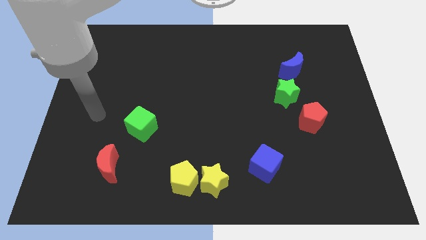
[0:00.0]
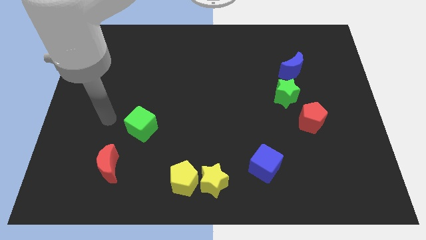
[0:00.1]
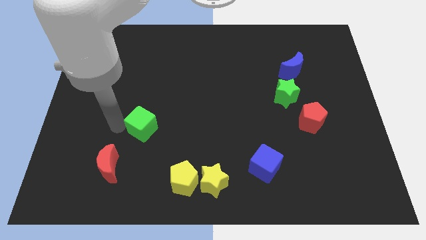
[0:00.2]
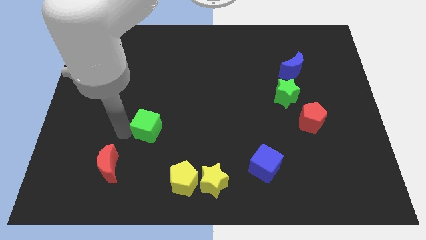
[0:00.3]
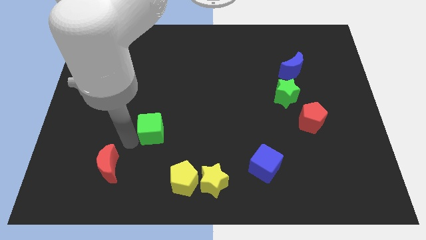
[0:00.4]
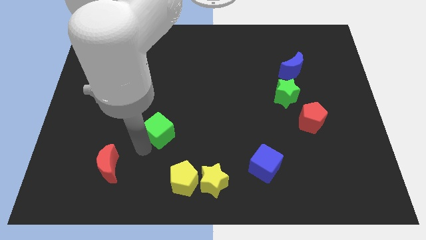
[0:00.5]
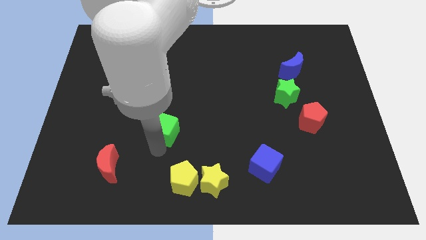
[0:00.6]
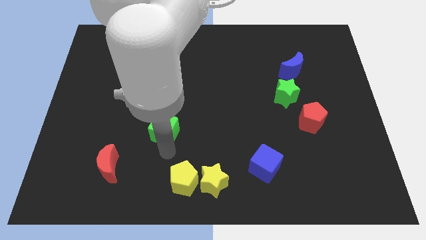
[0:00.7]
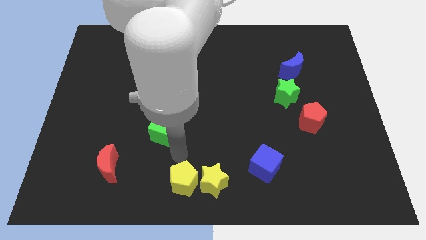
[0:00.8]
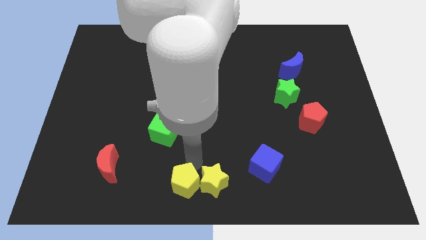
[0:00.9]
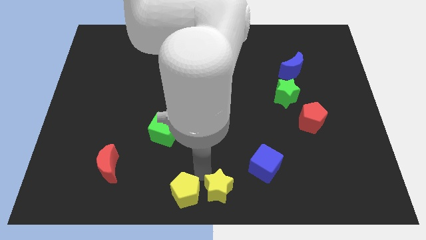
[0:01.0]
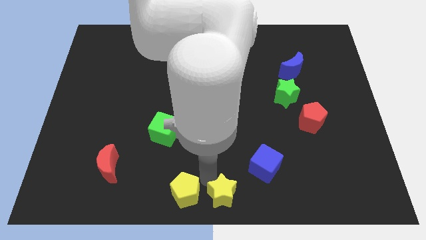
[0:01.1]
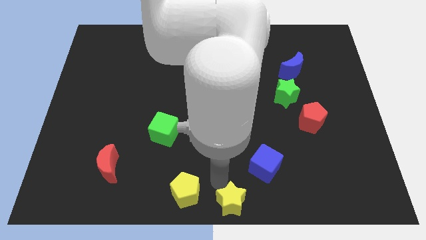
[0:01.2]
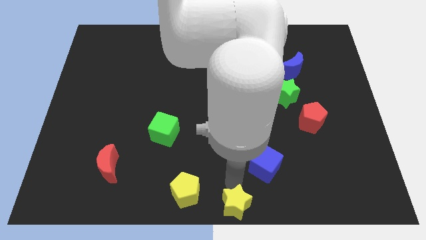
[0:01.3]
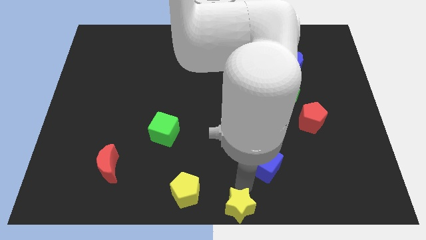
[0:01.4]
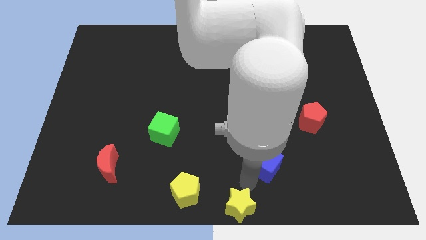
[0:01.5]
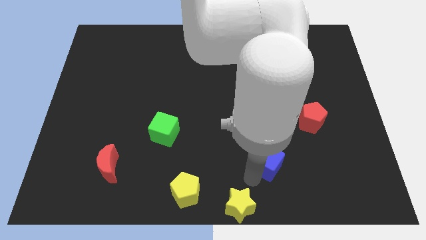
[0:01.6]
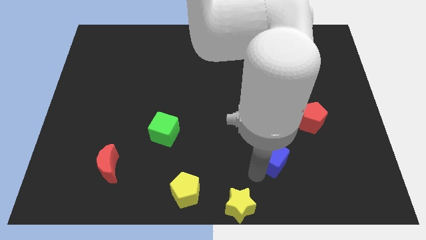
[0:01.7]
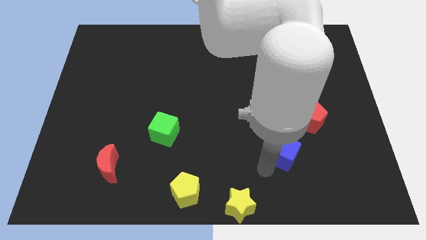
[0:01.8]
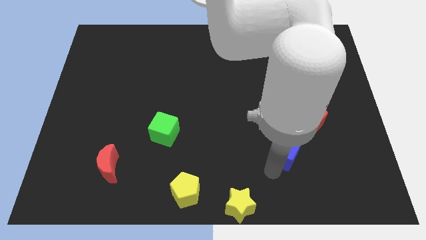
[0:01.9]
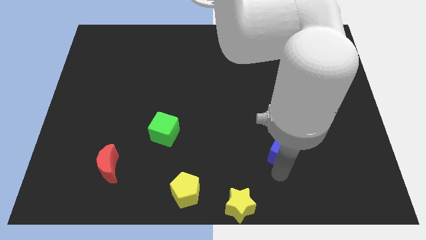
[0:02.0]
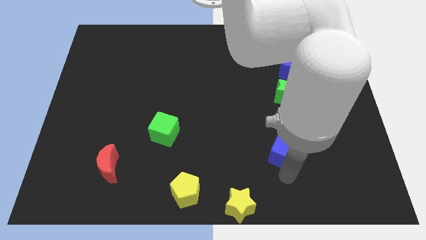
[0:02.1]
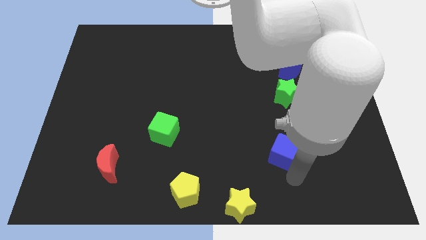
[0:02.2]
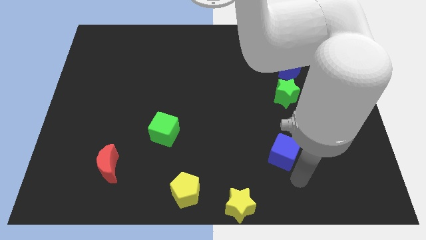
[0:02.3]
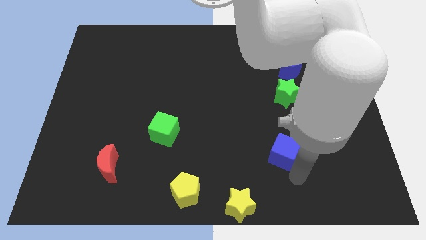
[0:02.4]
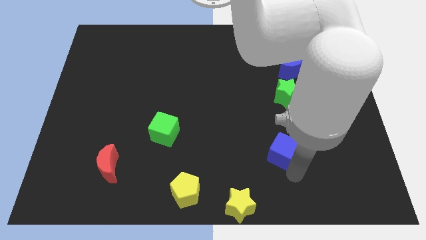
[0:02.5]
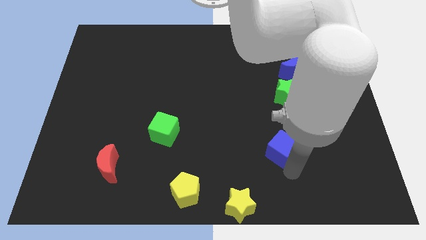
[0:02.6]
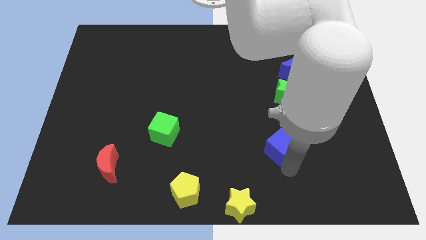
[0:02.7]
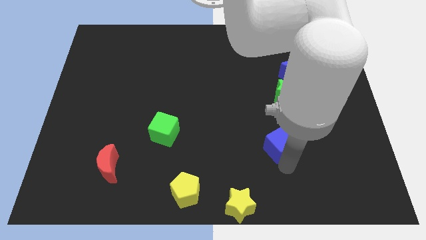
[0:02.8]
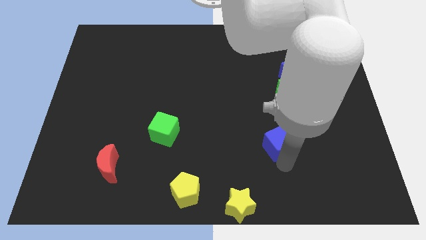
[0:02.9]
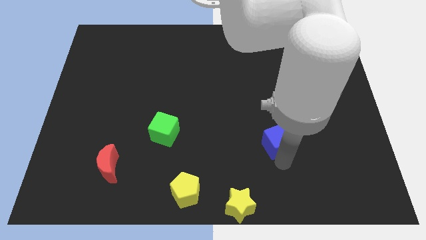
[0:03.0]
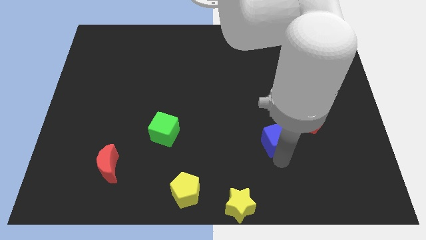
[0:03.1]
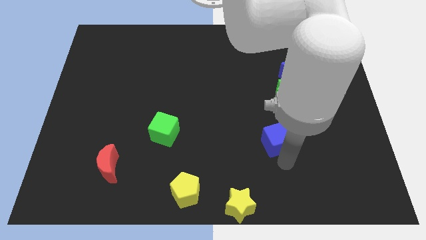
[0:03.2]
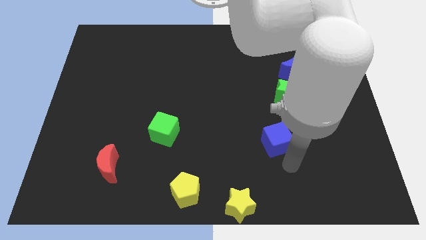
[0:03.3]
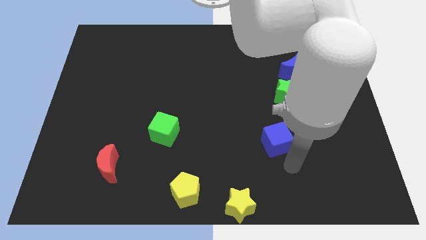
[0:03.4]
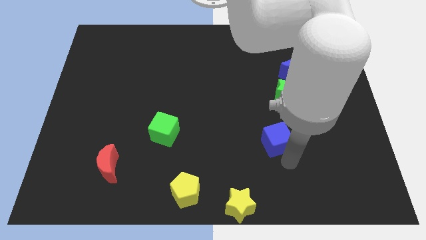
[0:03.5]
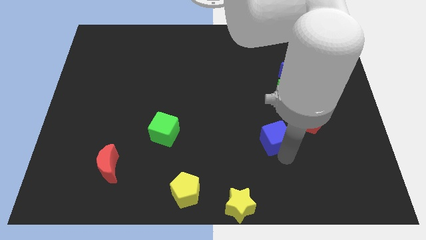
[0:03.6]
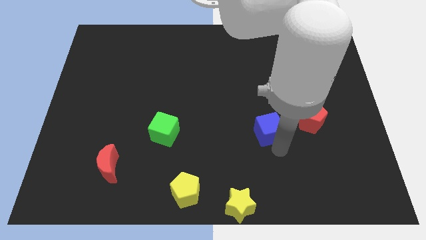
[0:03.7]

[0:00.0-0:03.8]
slightly push the blue cube up

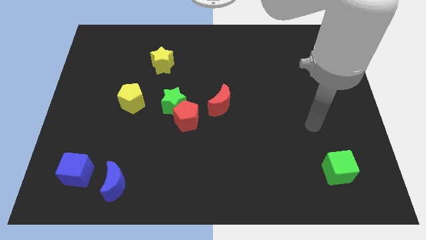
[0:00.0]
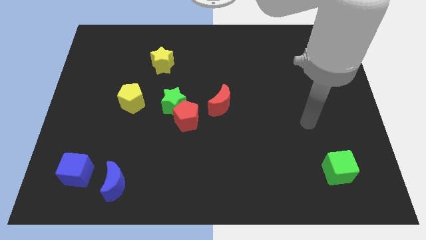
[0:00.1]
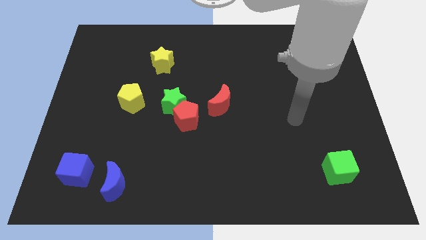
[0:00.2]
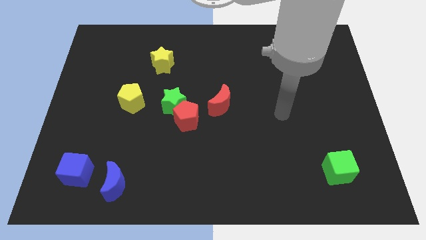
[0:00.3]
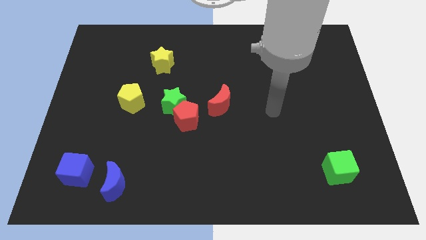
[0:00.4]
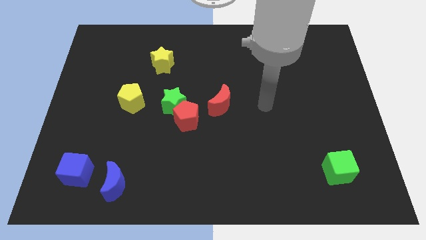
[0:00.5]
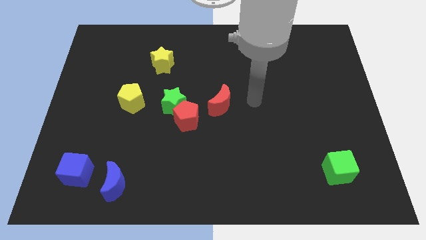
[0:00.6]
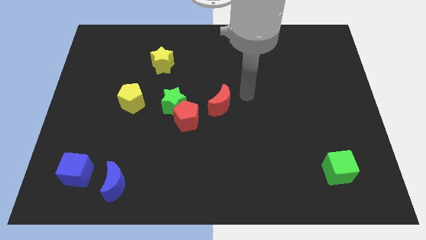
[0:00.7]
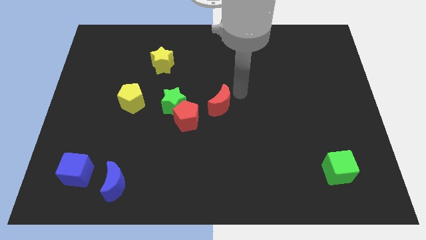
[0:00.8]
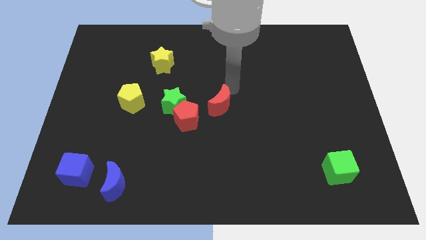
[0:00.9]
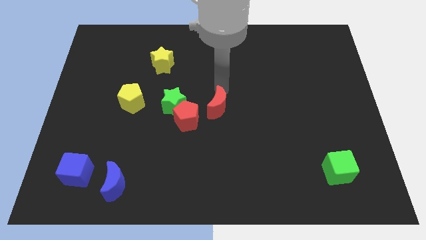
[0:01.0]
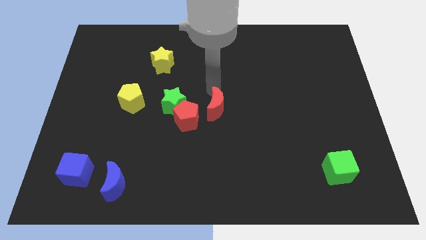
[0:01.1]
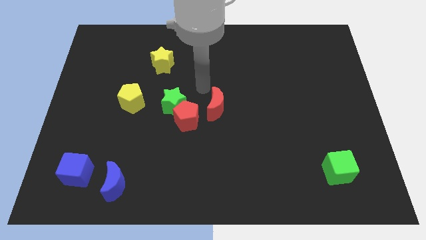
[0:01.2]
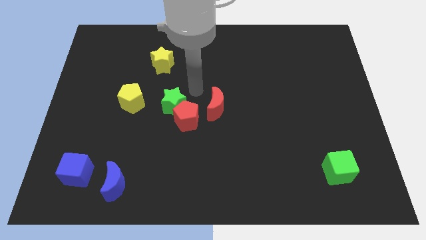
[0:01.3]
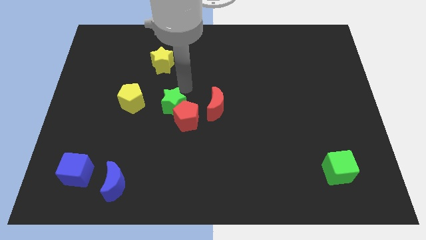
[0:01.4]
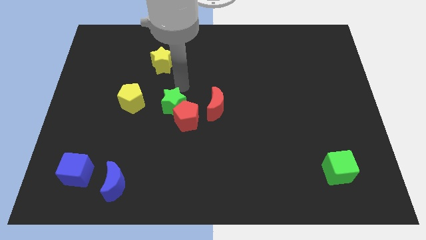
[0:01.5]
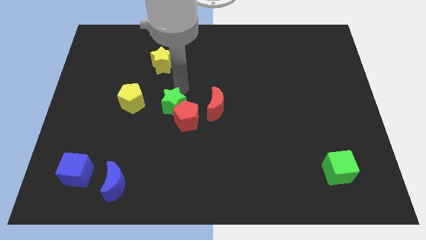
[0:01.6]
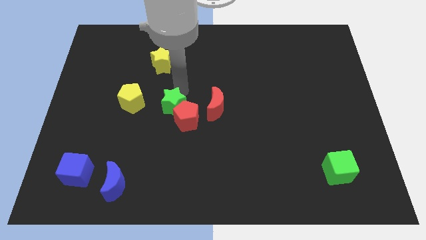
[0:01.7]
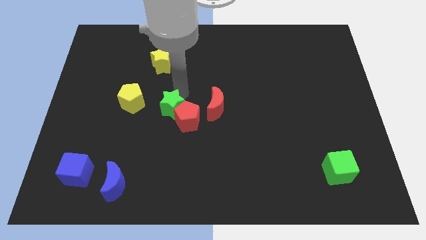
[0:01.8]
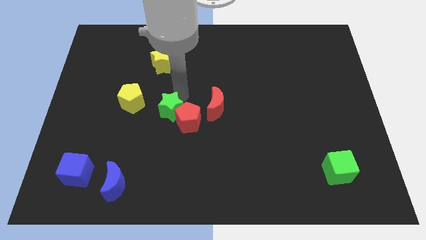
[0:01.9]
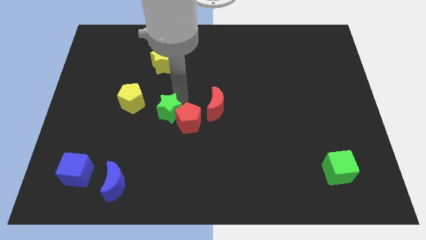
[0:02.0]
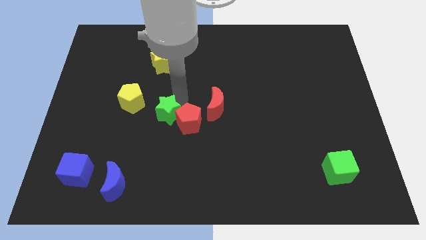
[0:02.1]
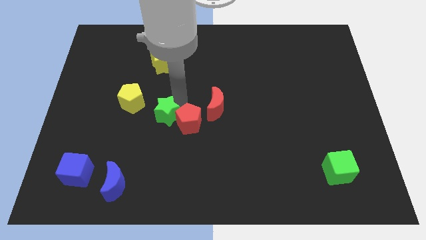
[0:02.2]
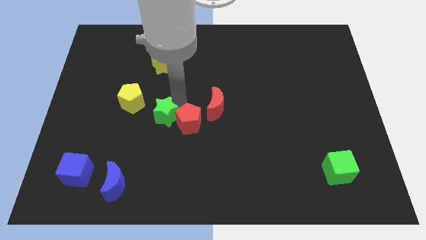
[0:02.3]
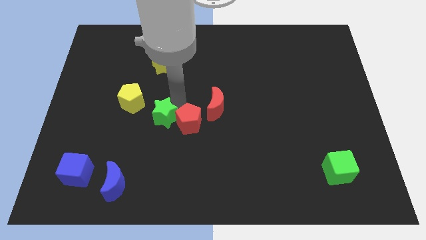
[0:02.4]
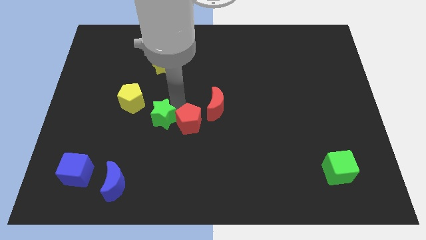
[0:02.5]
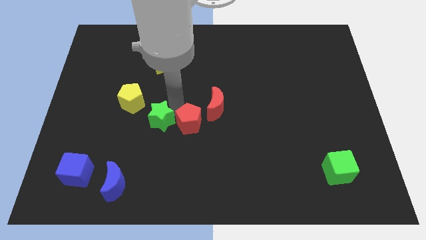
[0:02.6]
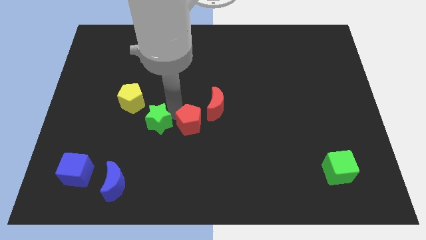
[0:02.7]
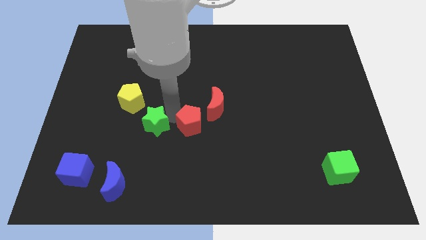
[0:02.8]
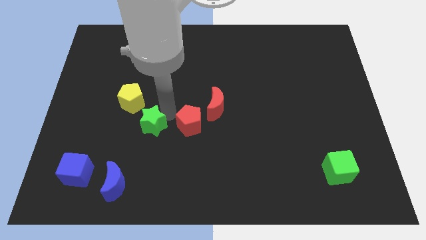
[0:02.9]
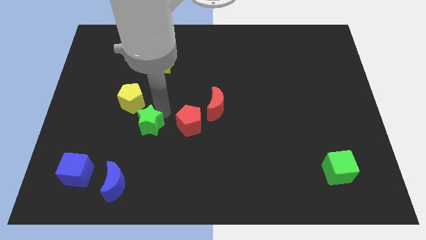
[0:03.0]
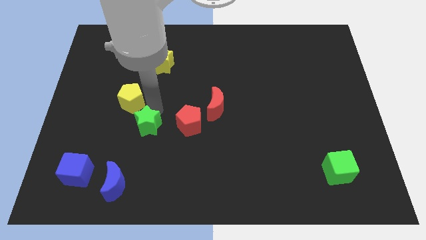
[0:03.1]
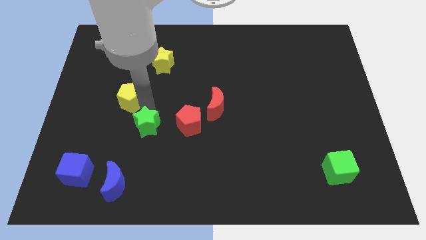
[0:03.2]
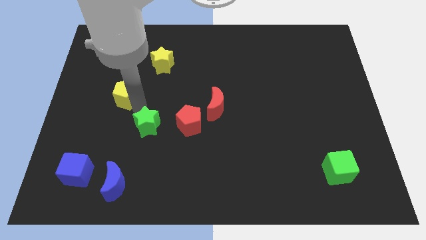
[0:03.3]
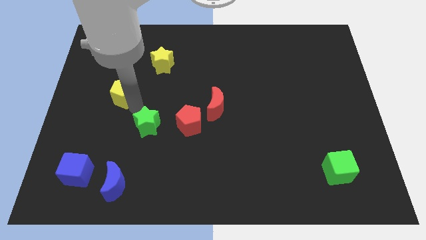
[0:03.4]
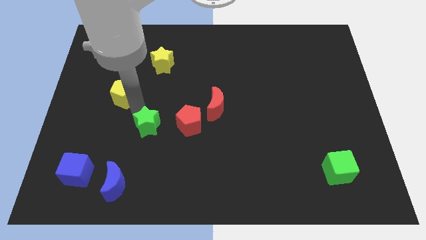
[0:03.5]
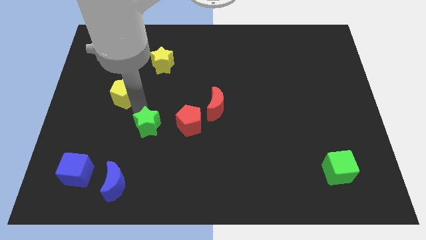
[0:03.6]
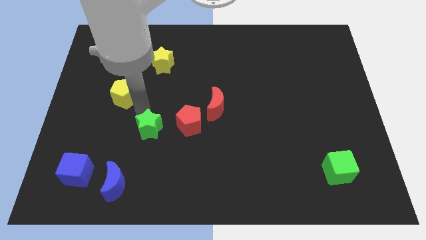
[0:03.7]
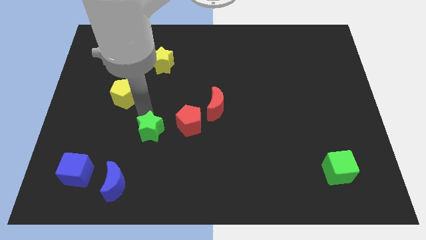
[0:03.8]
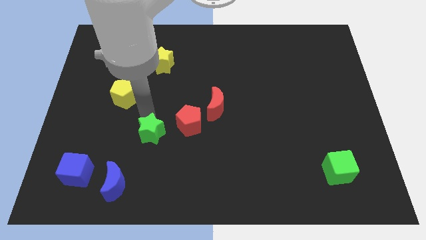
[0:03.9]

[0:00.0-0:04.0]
slide the green star down a little

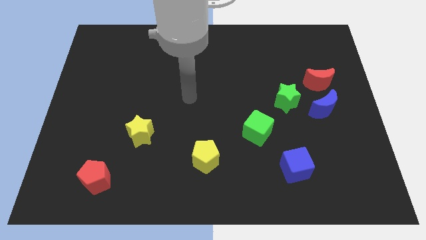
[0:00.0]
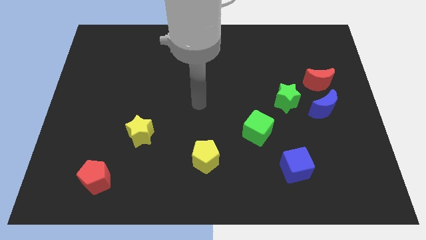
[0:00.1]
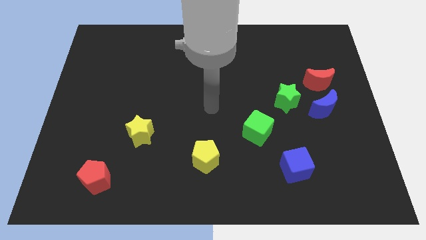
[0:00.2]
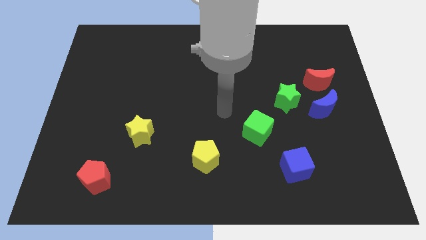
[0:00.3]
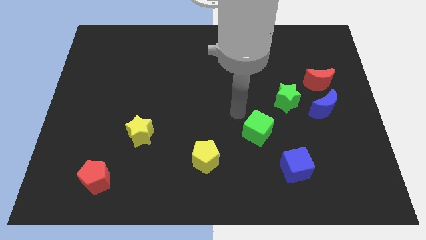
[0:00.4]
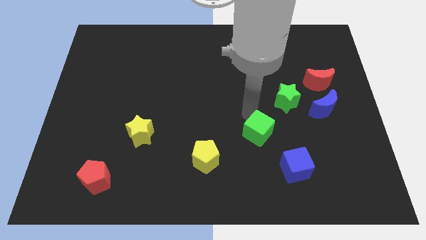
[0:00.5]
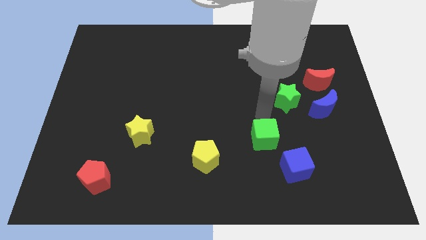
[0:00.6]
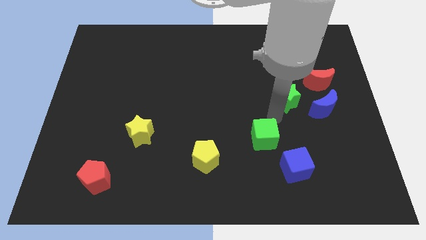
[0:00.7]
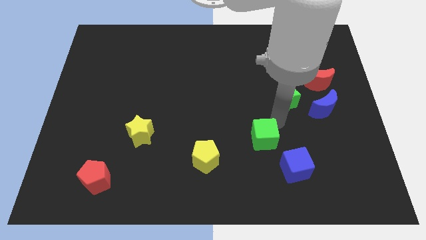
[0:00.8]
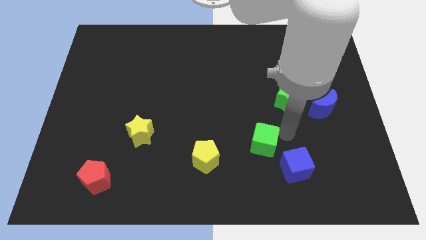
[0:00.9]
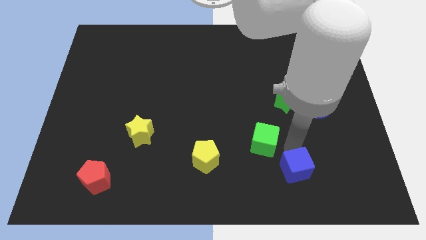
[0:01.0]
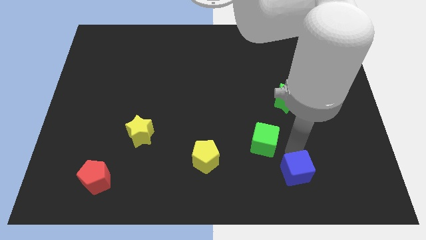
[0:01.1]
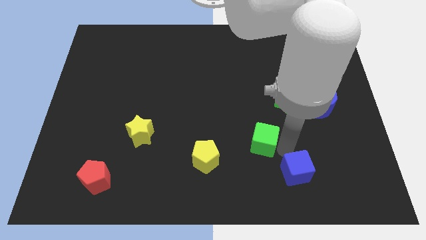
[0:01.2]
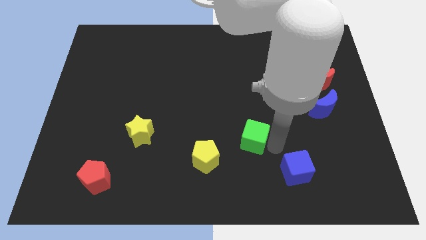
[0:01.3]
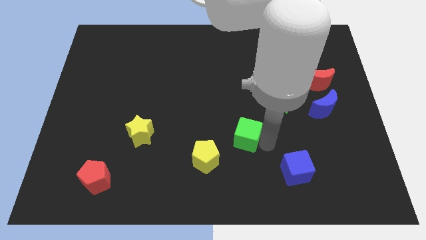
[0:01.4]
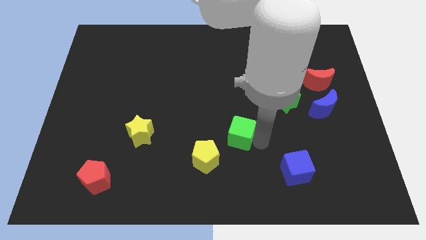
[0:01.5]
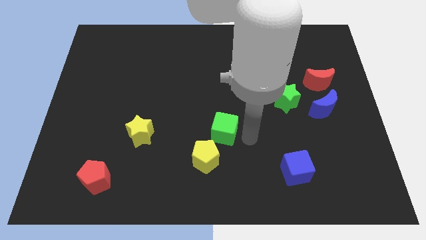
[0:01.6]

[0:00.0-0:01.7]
move the green cube a bit to the left
